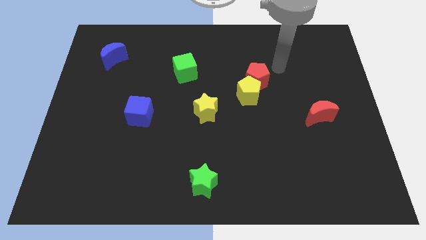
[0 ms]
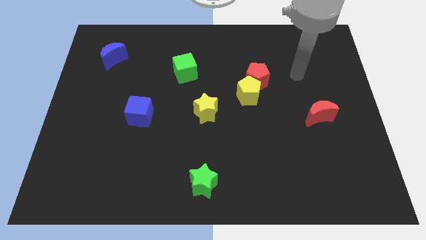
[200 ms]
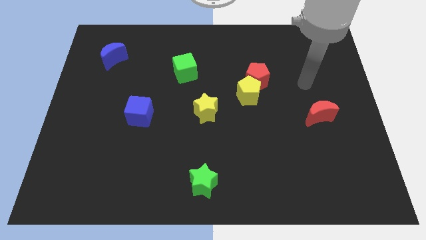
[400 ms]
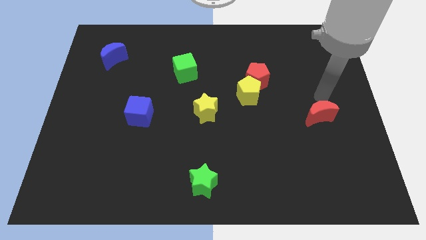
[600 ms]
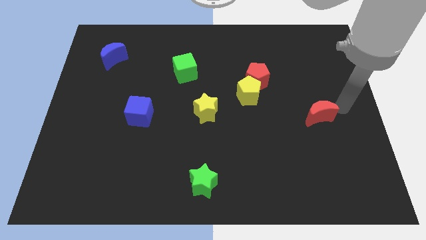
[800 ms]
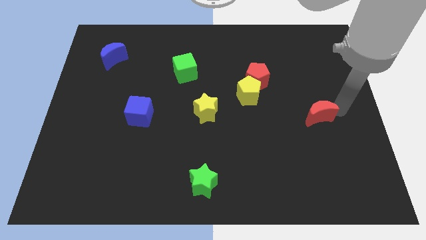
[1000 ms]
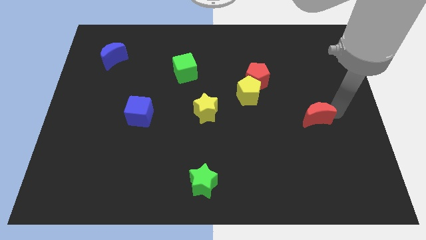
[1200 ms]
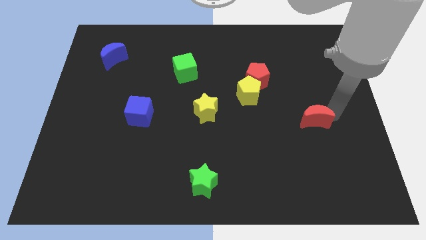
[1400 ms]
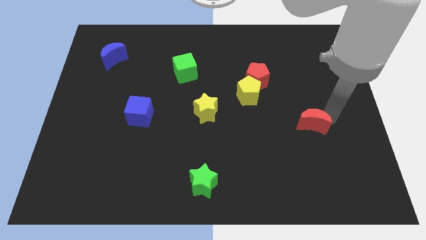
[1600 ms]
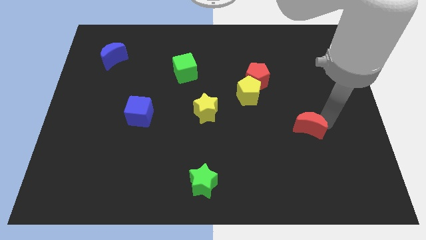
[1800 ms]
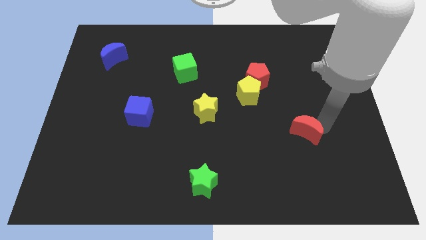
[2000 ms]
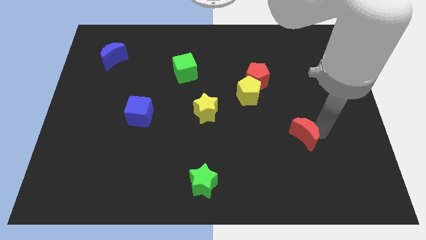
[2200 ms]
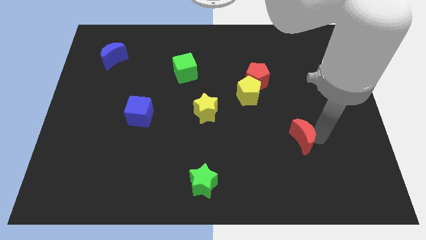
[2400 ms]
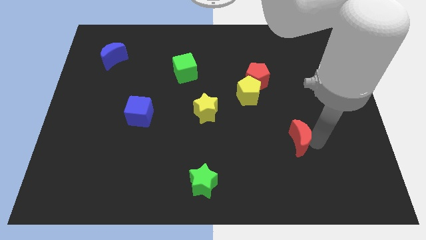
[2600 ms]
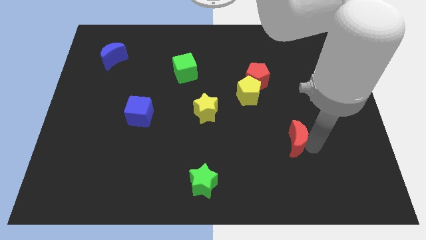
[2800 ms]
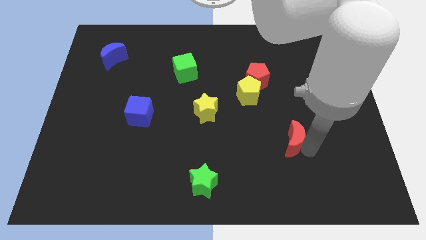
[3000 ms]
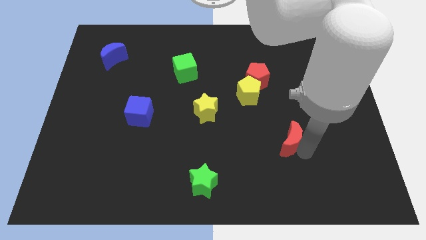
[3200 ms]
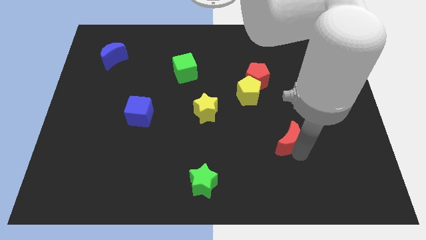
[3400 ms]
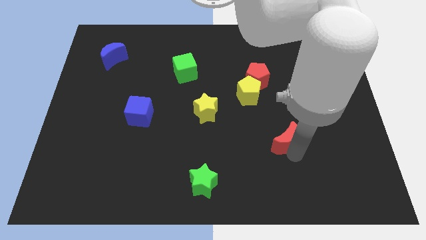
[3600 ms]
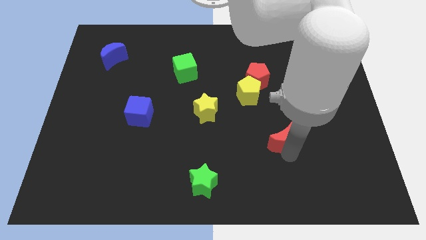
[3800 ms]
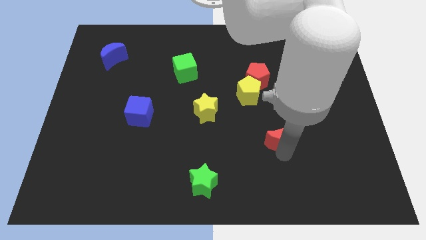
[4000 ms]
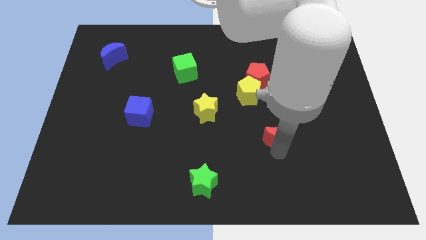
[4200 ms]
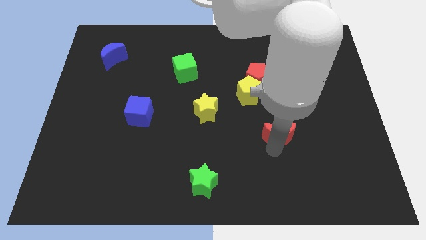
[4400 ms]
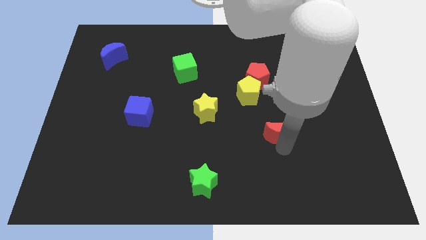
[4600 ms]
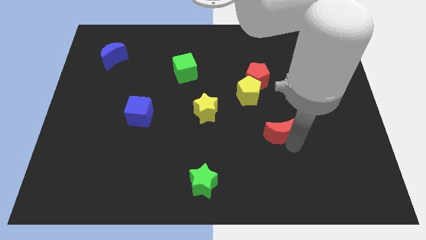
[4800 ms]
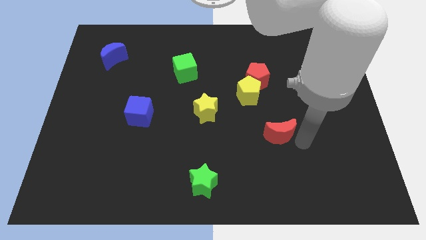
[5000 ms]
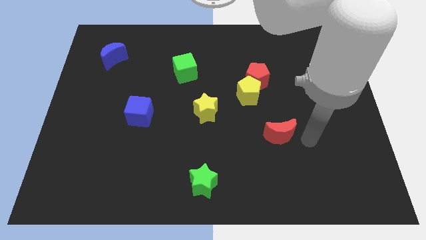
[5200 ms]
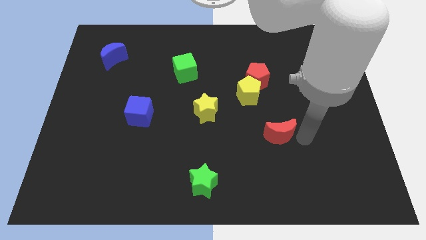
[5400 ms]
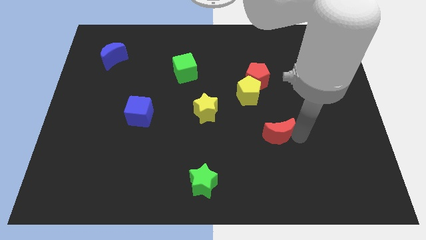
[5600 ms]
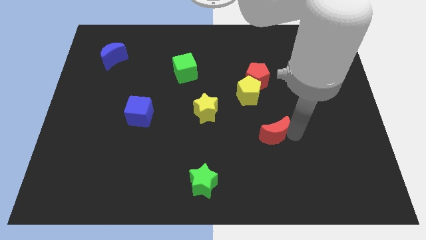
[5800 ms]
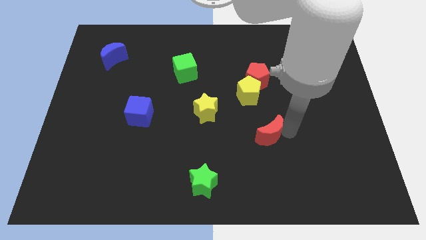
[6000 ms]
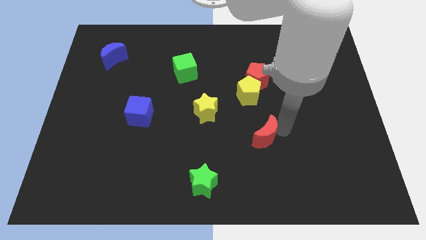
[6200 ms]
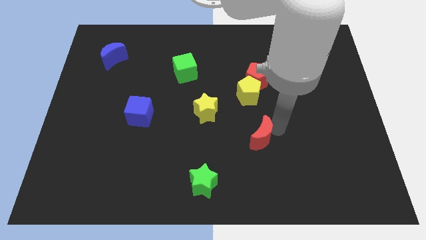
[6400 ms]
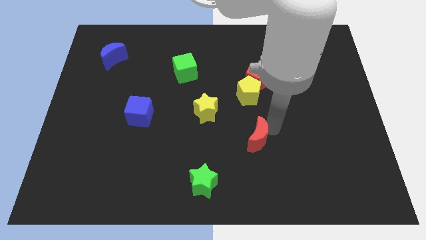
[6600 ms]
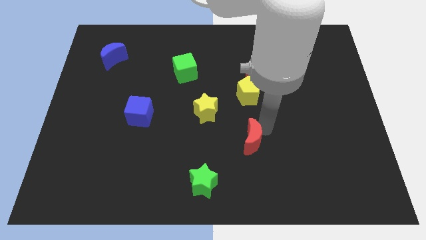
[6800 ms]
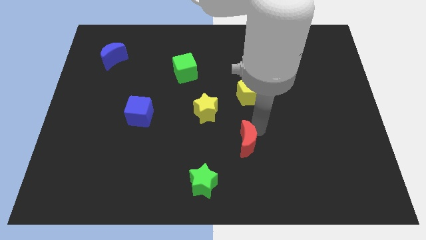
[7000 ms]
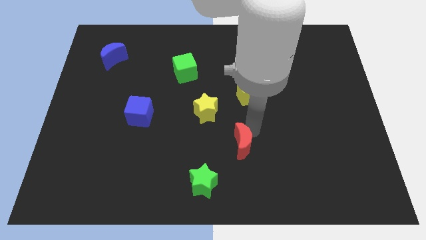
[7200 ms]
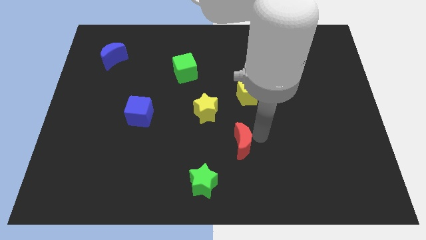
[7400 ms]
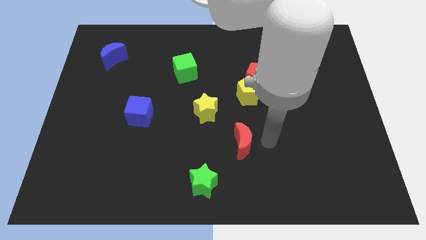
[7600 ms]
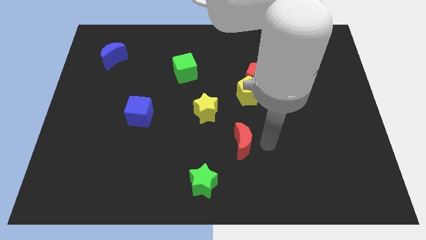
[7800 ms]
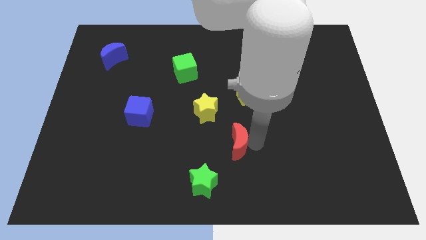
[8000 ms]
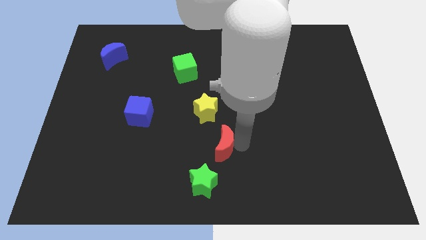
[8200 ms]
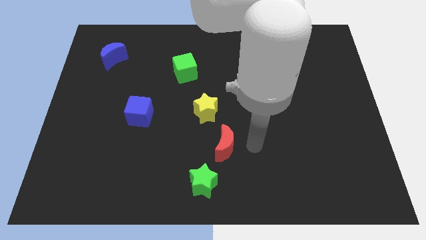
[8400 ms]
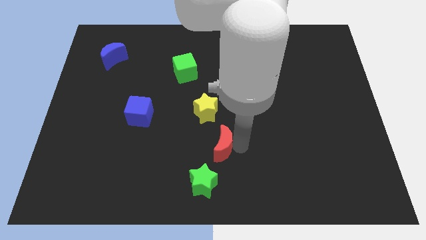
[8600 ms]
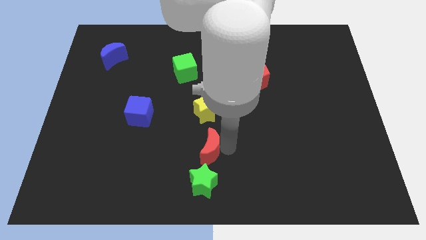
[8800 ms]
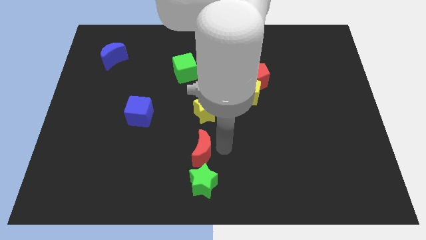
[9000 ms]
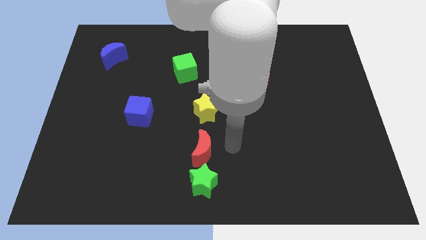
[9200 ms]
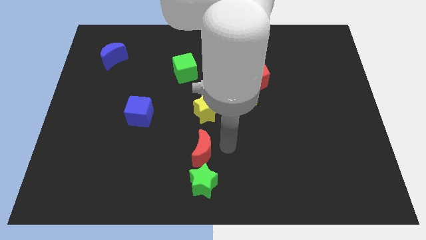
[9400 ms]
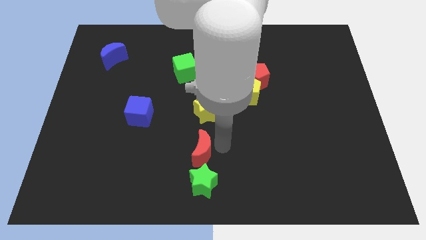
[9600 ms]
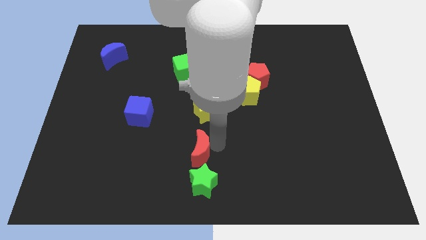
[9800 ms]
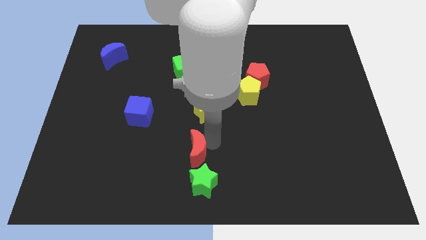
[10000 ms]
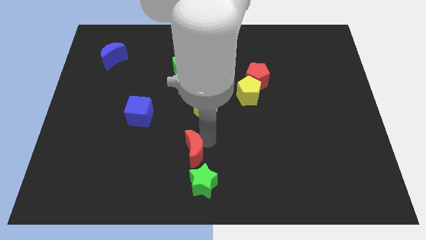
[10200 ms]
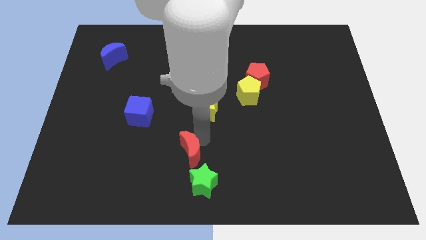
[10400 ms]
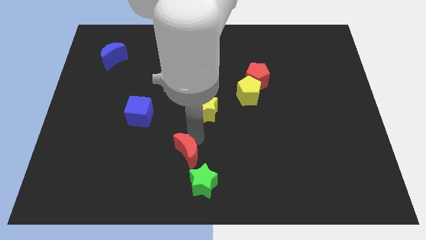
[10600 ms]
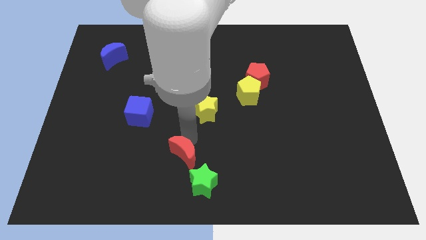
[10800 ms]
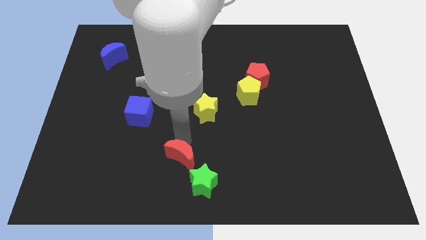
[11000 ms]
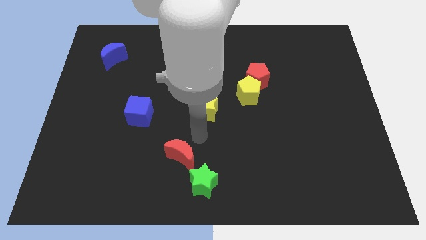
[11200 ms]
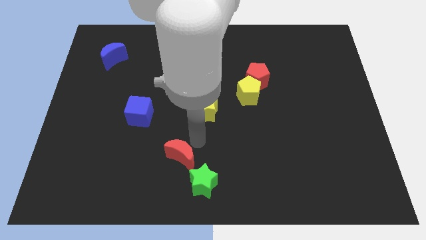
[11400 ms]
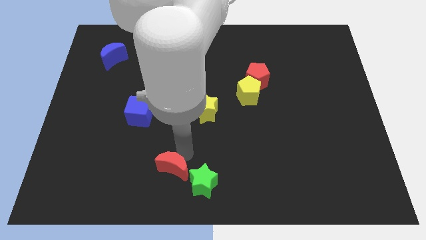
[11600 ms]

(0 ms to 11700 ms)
put the red moon to the left of the green star
